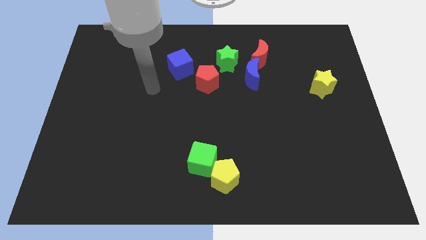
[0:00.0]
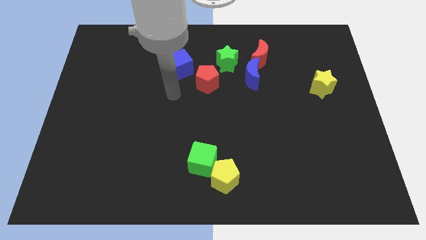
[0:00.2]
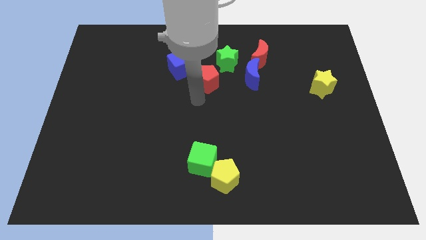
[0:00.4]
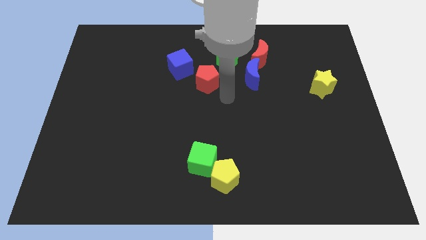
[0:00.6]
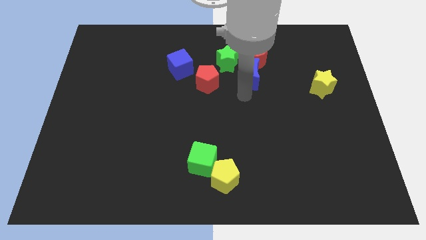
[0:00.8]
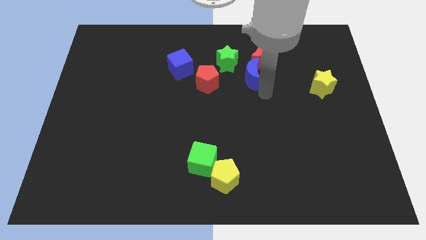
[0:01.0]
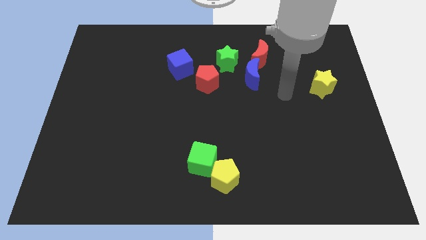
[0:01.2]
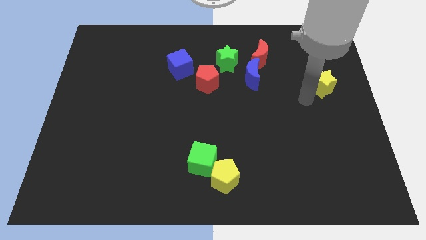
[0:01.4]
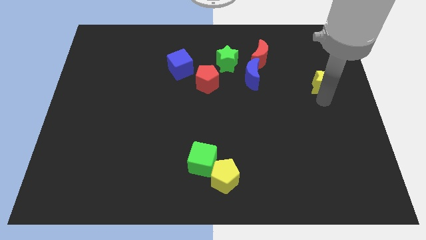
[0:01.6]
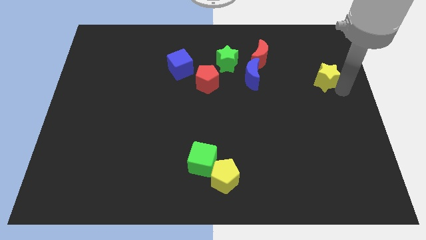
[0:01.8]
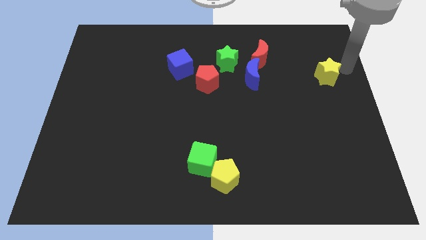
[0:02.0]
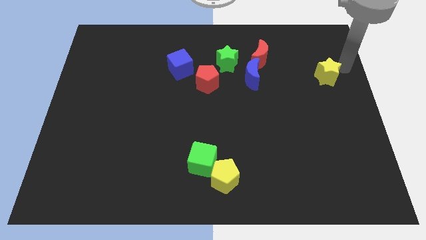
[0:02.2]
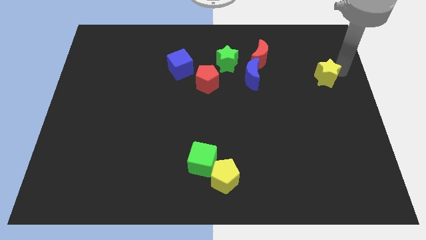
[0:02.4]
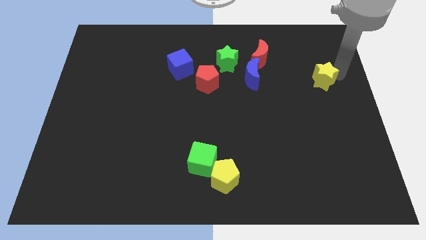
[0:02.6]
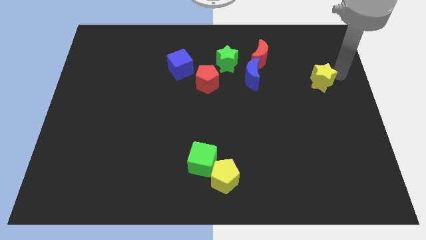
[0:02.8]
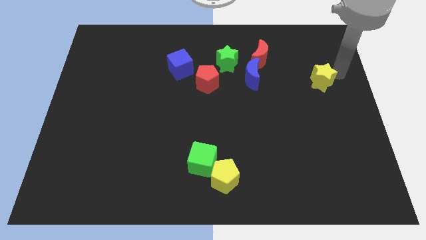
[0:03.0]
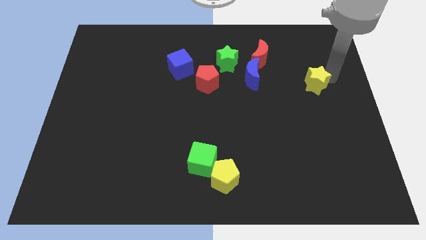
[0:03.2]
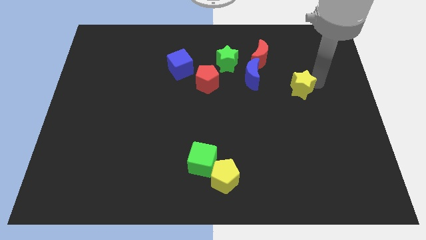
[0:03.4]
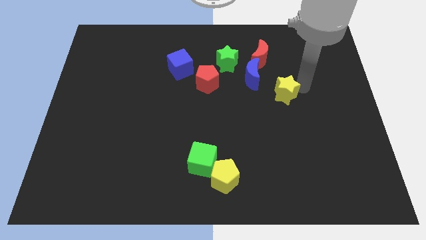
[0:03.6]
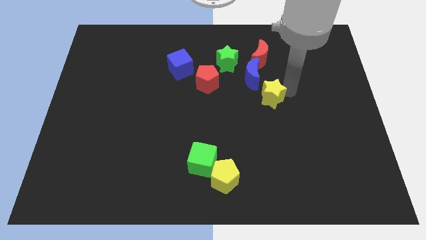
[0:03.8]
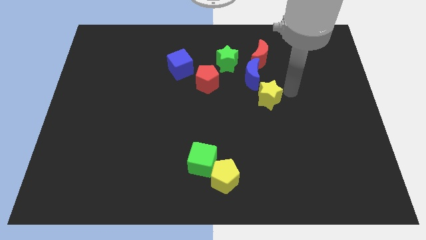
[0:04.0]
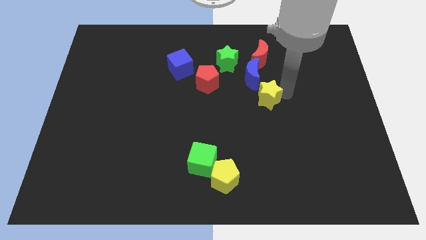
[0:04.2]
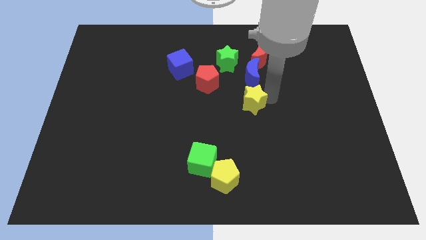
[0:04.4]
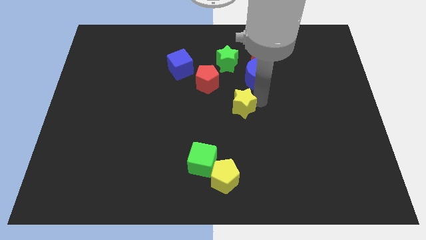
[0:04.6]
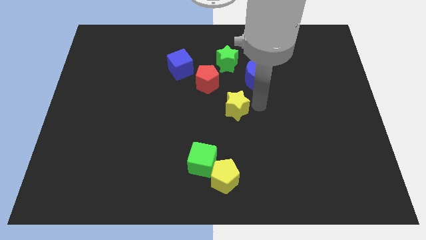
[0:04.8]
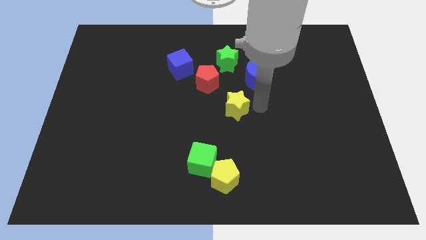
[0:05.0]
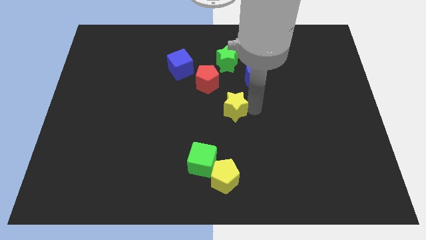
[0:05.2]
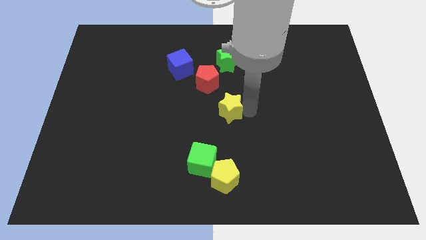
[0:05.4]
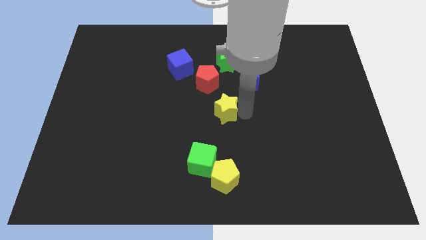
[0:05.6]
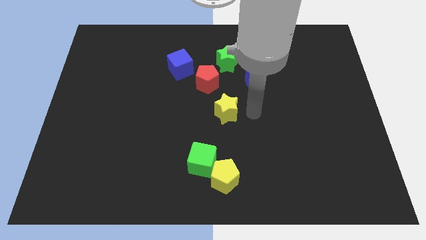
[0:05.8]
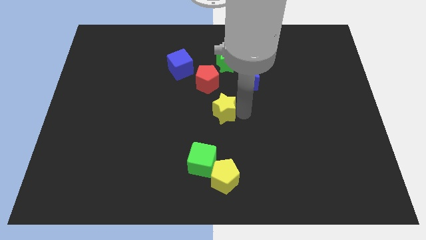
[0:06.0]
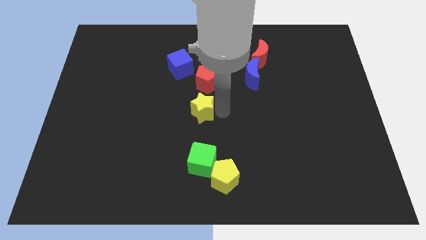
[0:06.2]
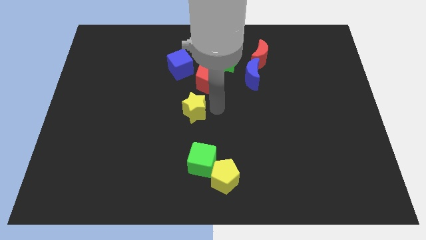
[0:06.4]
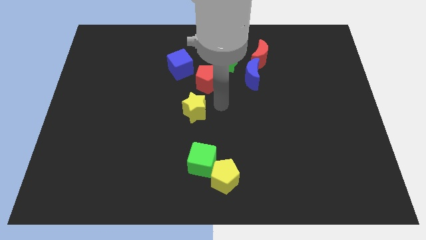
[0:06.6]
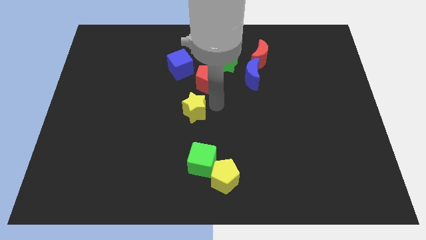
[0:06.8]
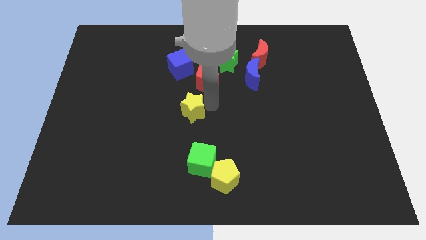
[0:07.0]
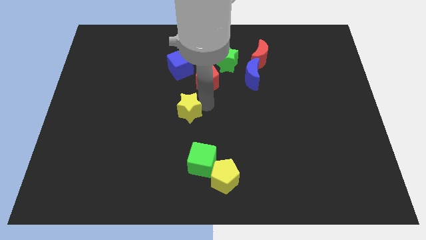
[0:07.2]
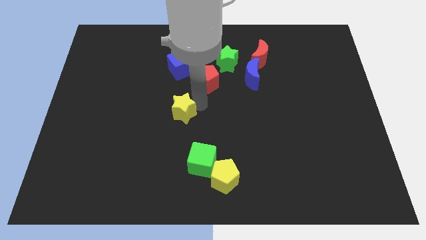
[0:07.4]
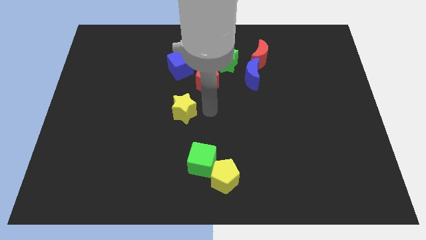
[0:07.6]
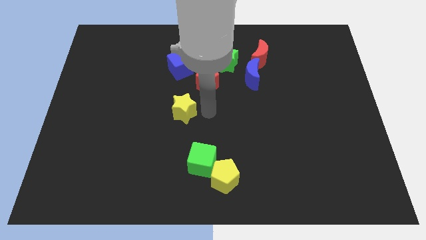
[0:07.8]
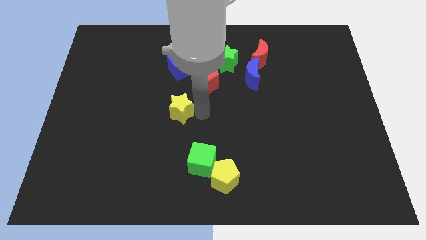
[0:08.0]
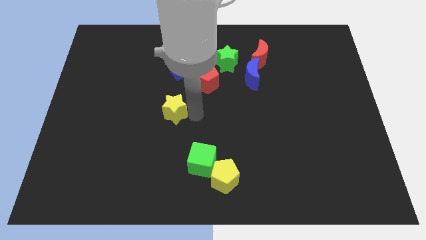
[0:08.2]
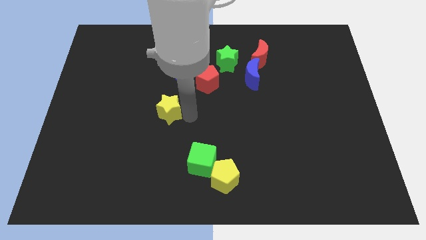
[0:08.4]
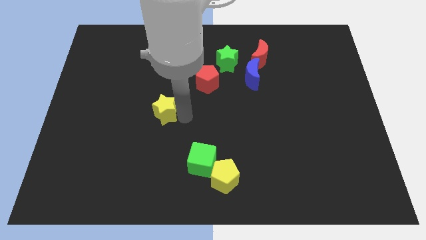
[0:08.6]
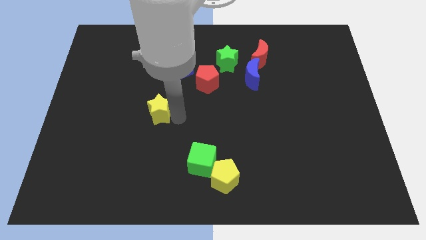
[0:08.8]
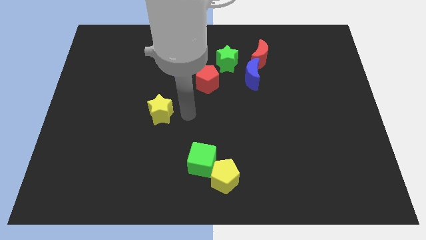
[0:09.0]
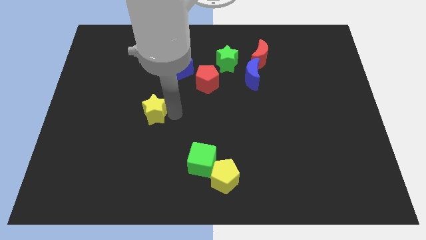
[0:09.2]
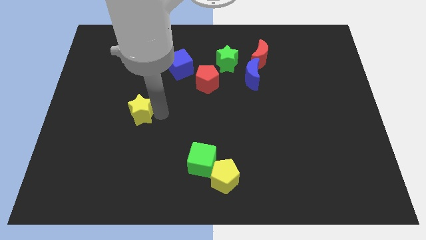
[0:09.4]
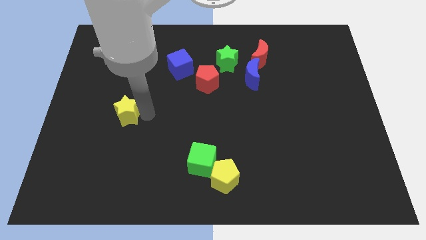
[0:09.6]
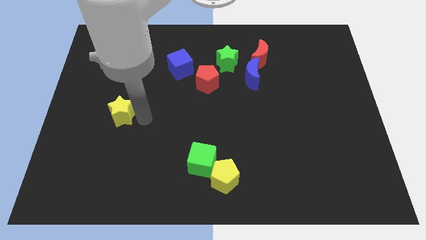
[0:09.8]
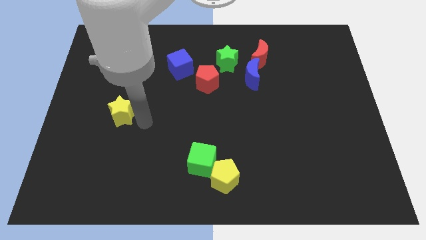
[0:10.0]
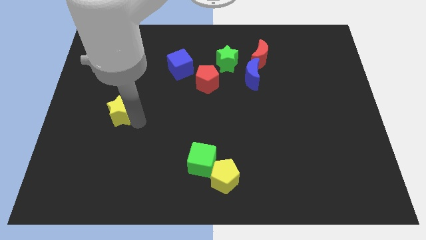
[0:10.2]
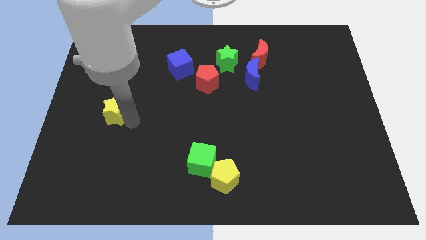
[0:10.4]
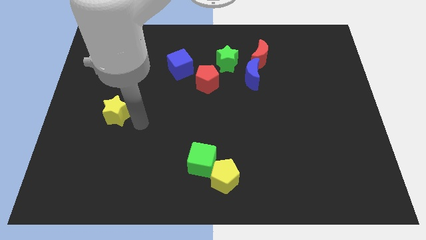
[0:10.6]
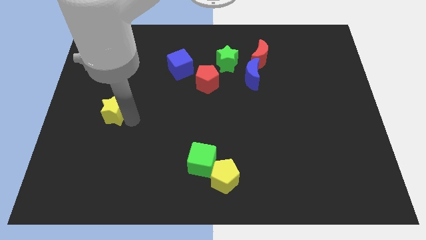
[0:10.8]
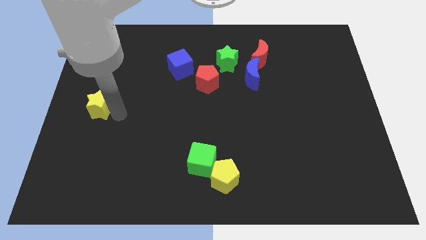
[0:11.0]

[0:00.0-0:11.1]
move the yellow star to the left side of the board

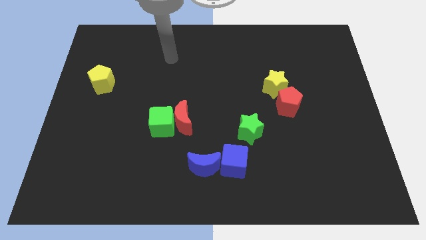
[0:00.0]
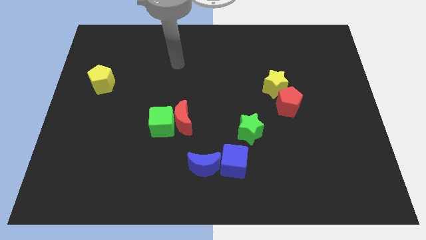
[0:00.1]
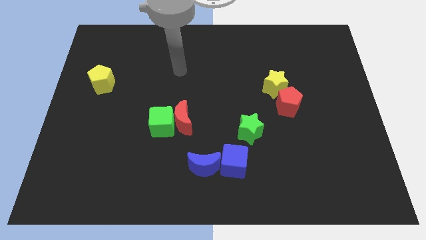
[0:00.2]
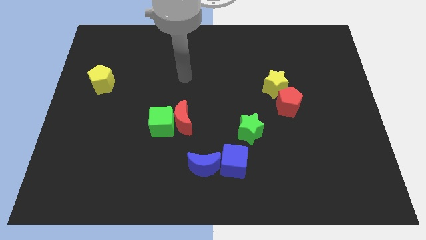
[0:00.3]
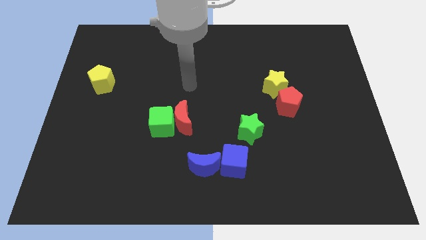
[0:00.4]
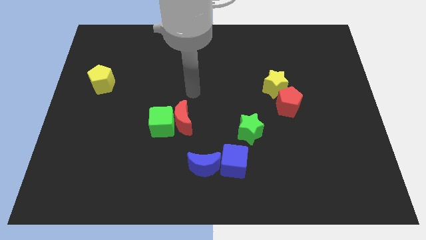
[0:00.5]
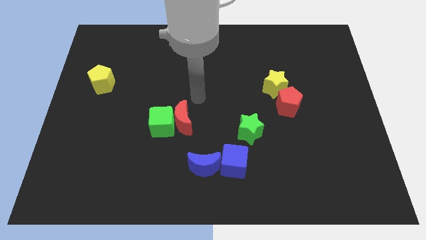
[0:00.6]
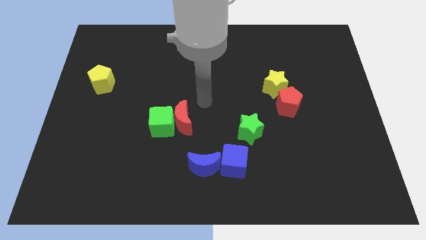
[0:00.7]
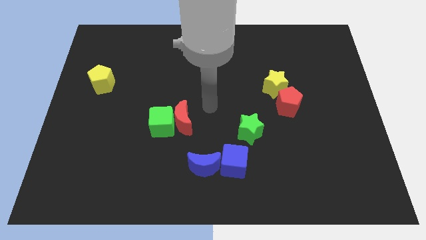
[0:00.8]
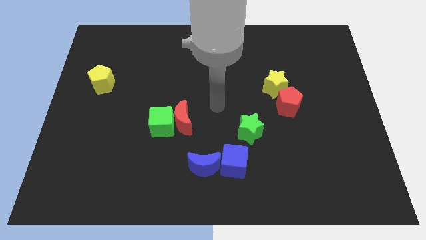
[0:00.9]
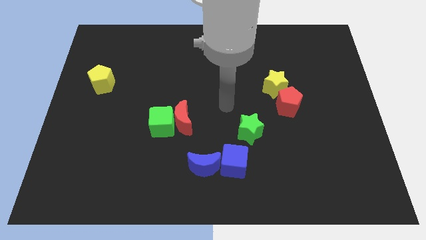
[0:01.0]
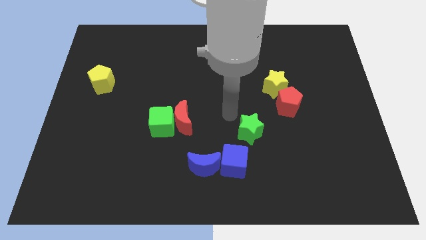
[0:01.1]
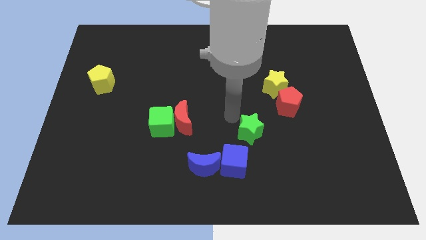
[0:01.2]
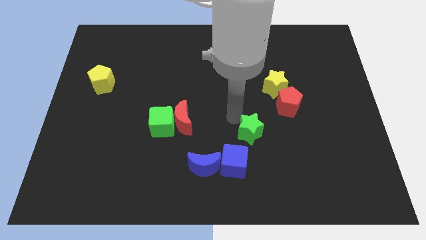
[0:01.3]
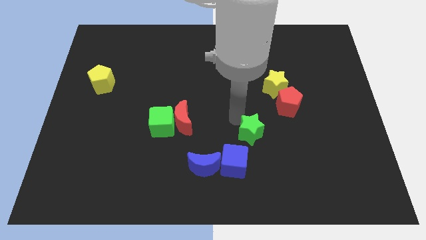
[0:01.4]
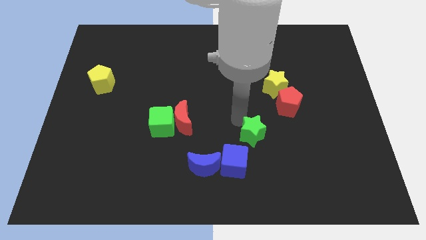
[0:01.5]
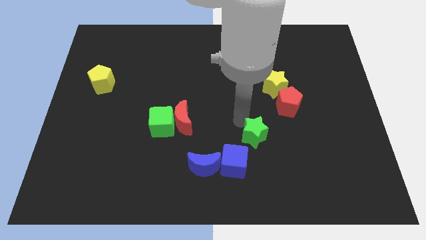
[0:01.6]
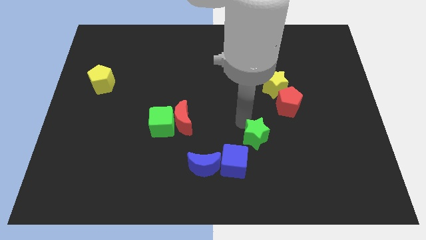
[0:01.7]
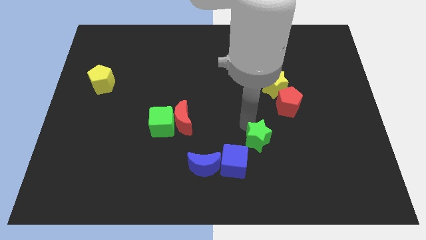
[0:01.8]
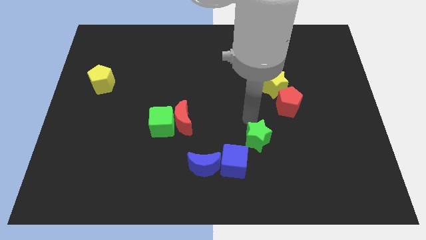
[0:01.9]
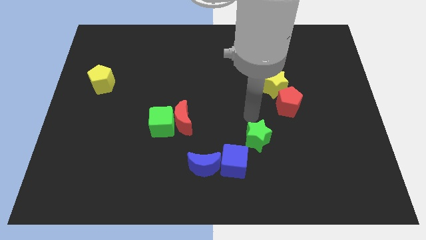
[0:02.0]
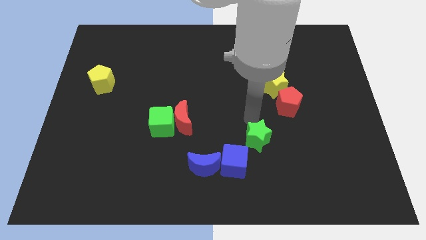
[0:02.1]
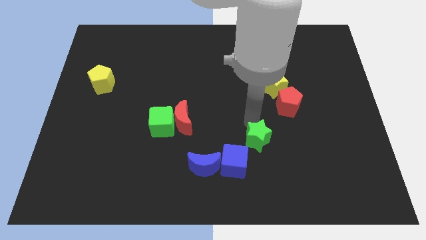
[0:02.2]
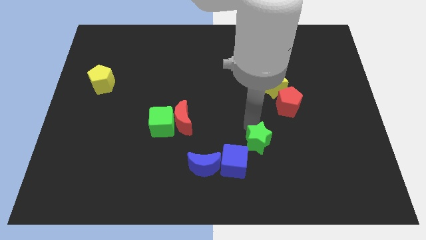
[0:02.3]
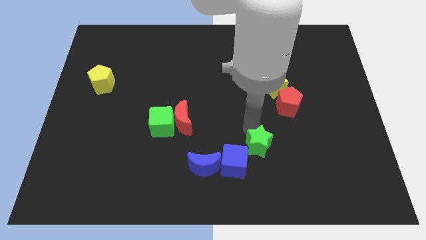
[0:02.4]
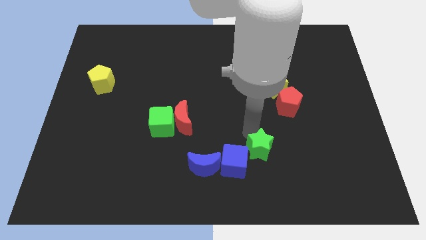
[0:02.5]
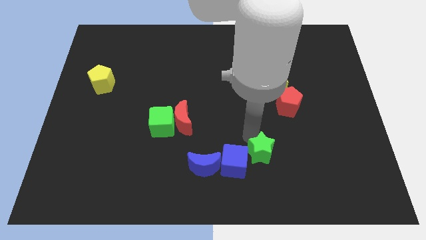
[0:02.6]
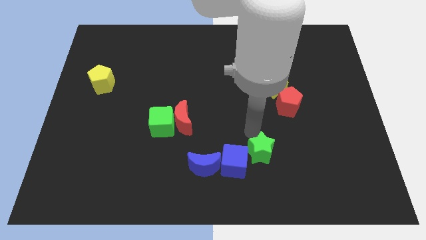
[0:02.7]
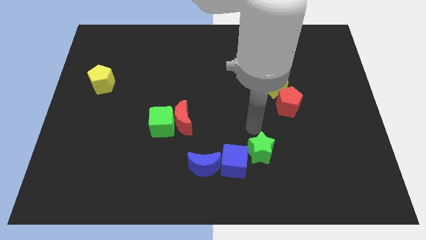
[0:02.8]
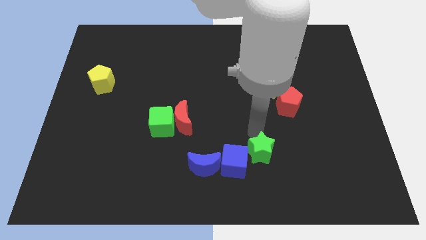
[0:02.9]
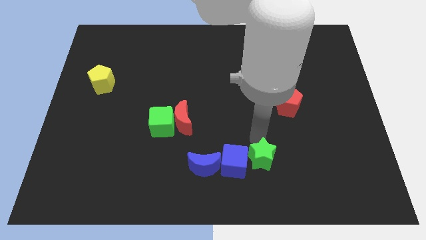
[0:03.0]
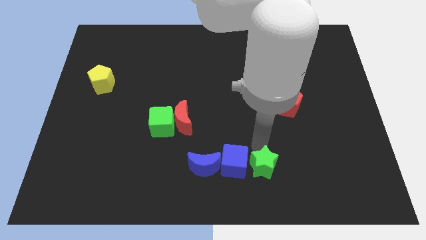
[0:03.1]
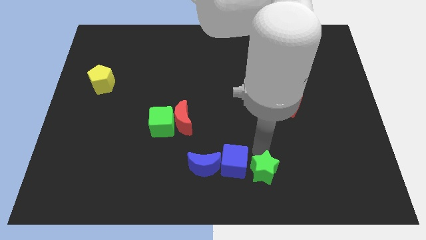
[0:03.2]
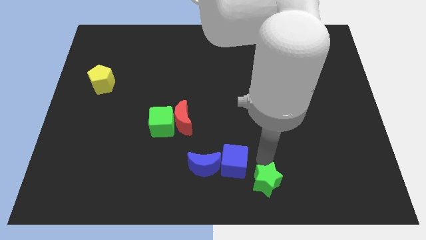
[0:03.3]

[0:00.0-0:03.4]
move the green star to the bottom
